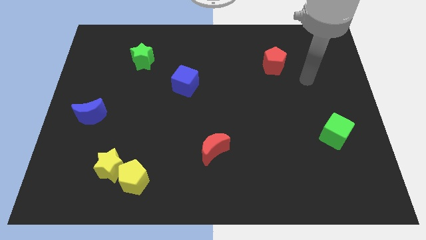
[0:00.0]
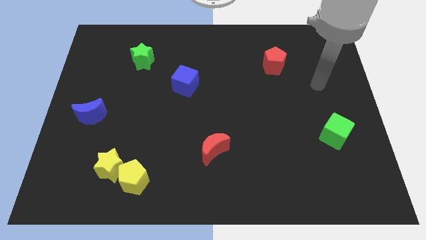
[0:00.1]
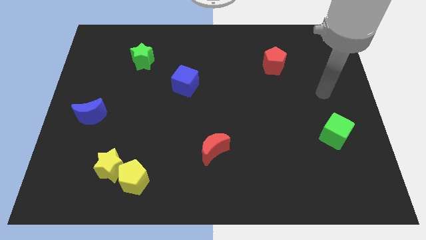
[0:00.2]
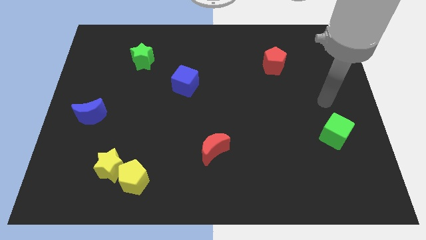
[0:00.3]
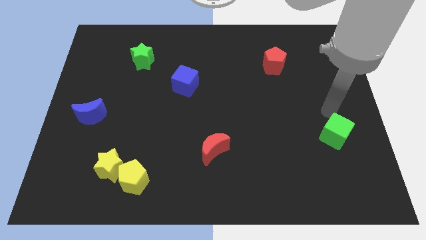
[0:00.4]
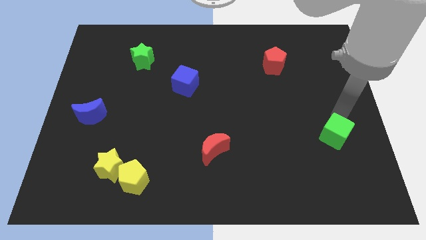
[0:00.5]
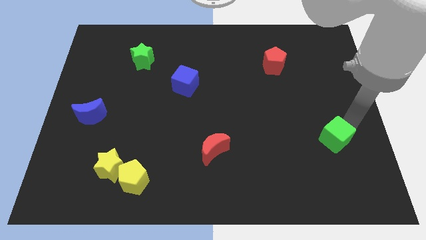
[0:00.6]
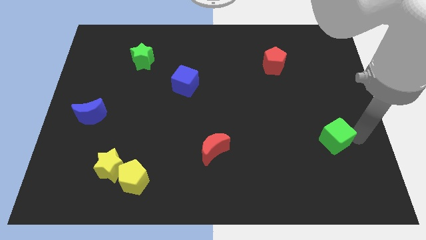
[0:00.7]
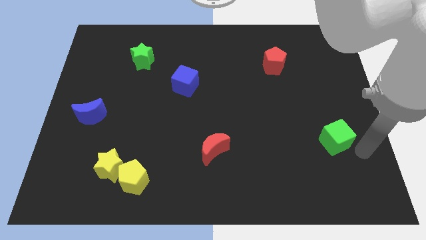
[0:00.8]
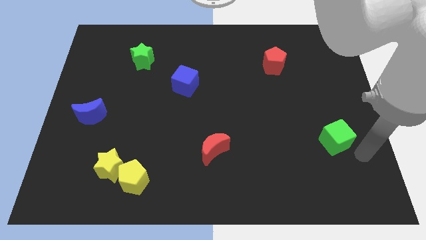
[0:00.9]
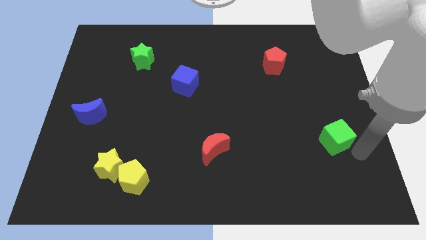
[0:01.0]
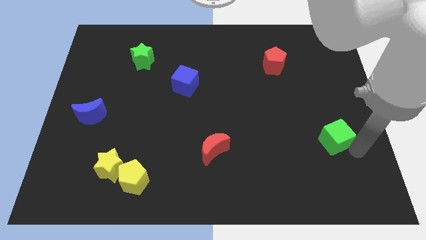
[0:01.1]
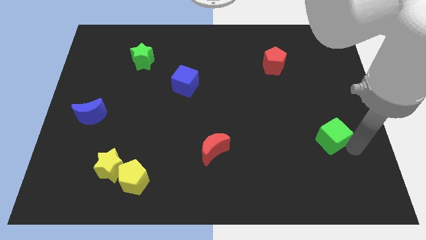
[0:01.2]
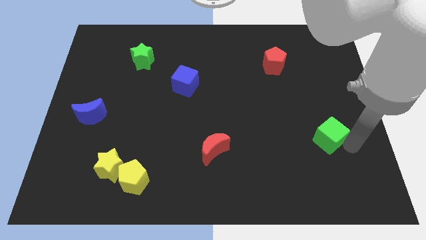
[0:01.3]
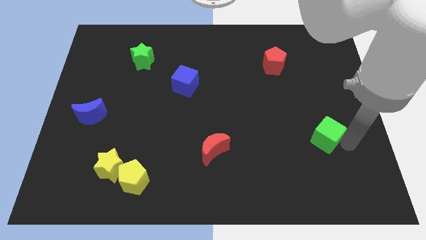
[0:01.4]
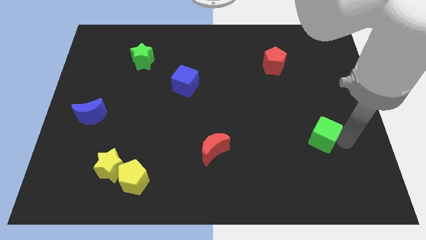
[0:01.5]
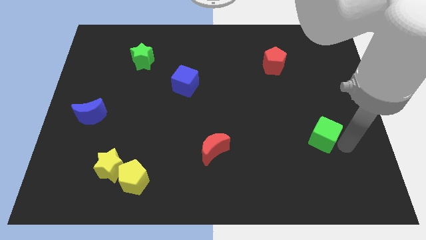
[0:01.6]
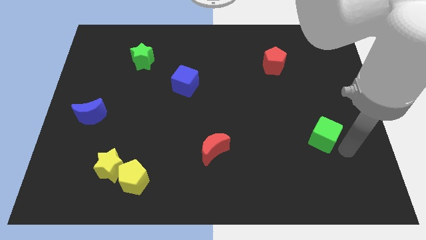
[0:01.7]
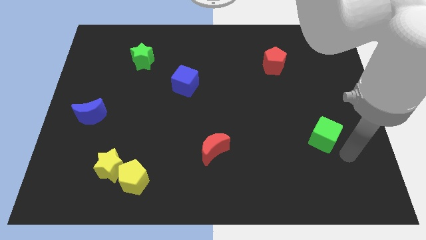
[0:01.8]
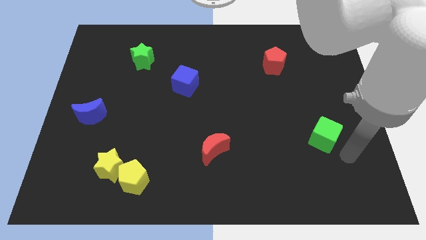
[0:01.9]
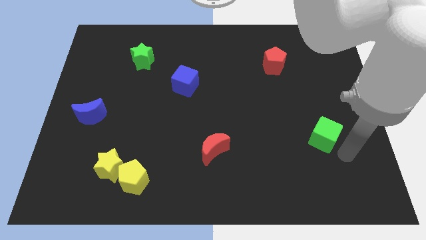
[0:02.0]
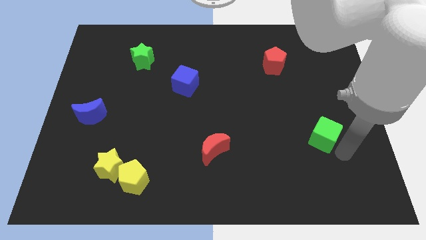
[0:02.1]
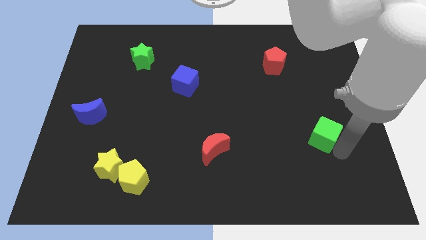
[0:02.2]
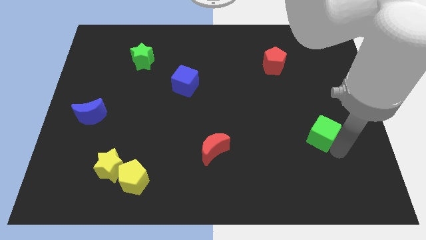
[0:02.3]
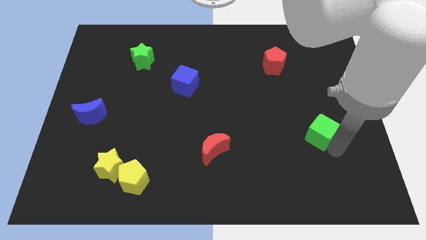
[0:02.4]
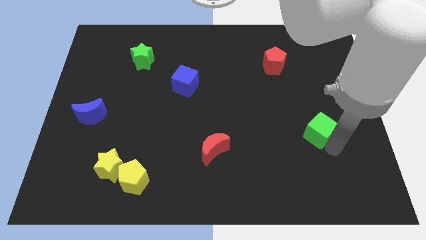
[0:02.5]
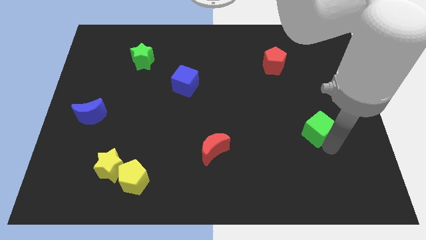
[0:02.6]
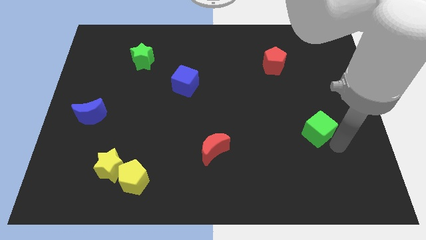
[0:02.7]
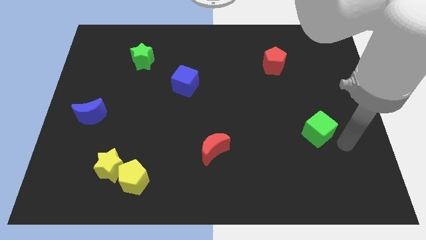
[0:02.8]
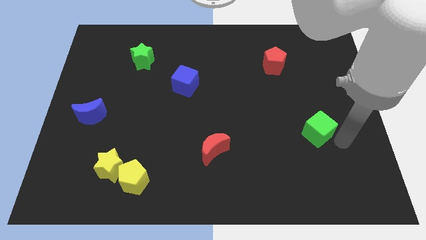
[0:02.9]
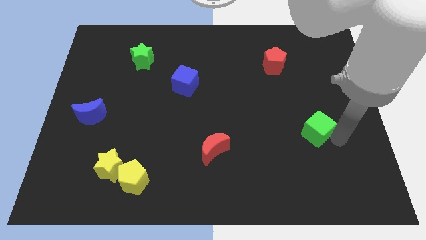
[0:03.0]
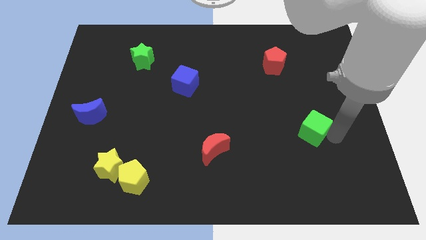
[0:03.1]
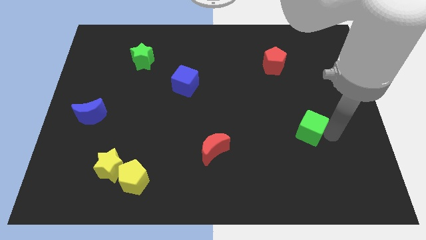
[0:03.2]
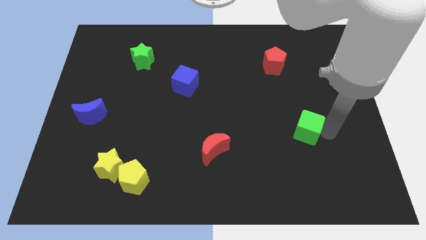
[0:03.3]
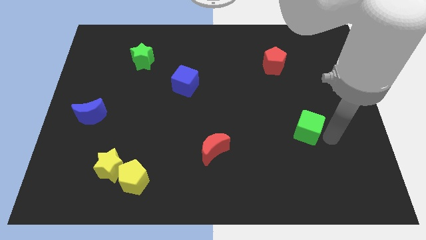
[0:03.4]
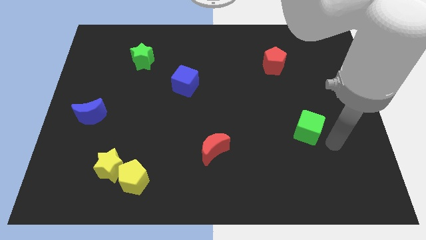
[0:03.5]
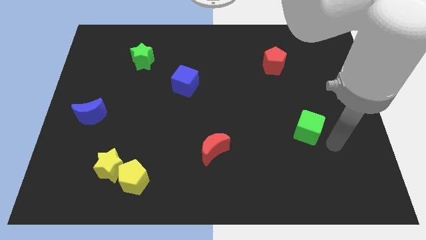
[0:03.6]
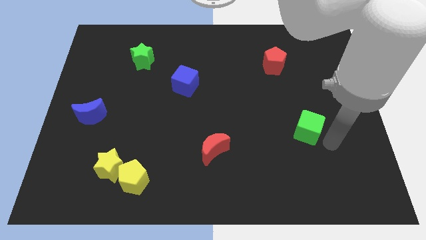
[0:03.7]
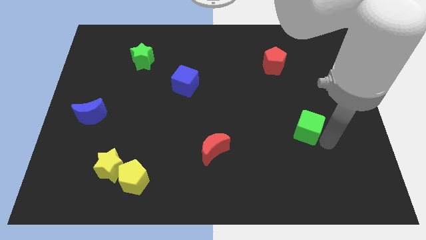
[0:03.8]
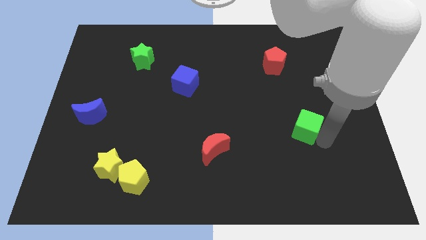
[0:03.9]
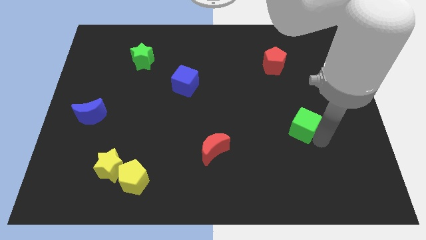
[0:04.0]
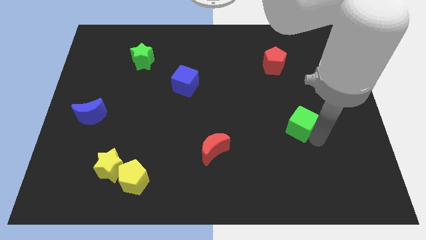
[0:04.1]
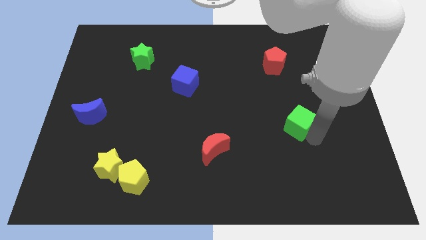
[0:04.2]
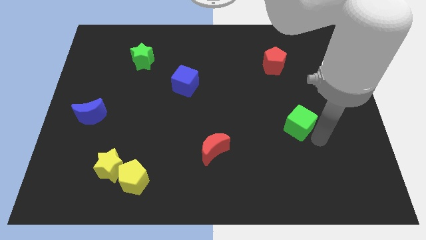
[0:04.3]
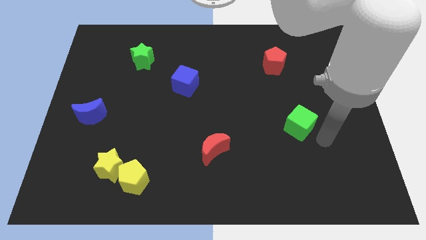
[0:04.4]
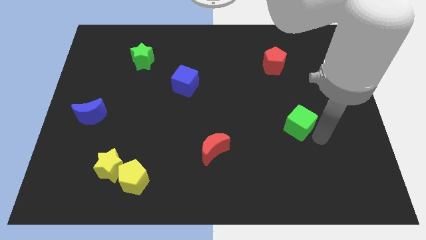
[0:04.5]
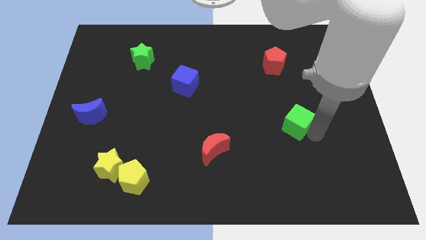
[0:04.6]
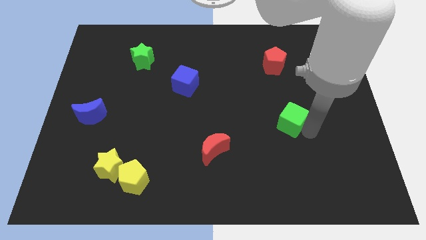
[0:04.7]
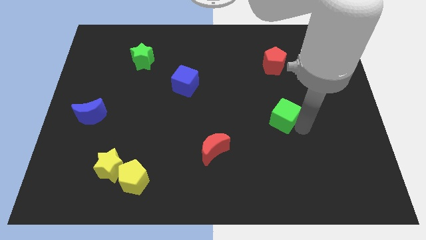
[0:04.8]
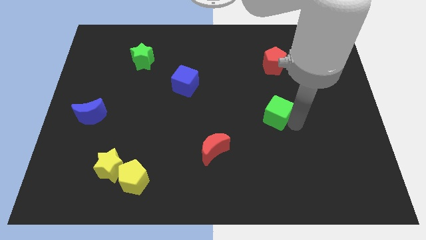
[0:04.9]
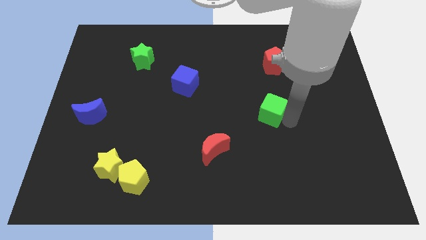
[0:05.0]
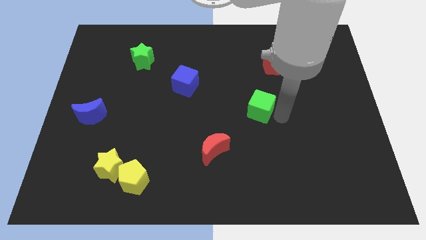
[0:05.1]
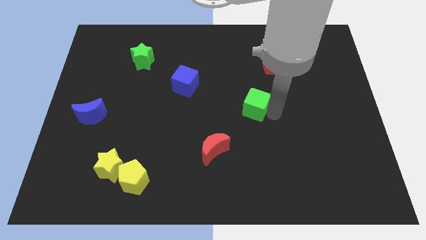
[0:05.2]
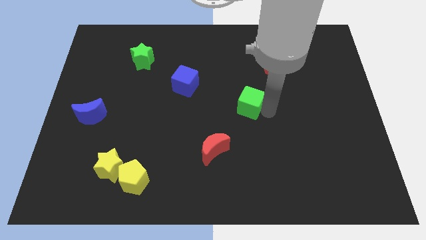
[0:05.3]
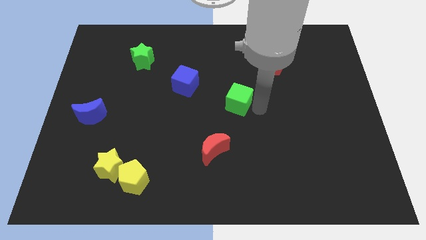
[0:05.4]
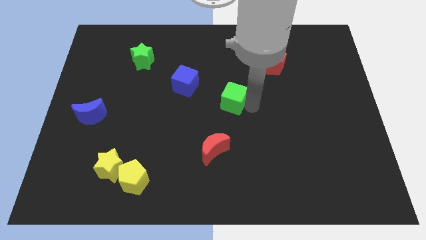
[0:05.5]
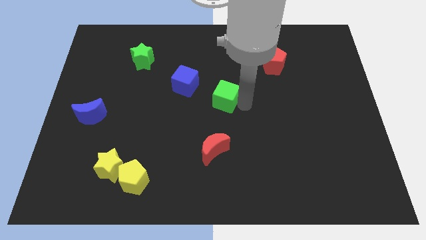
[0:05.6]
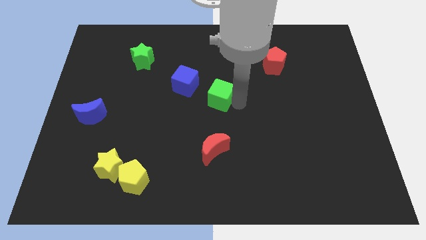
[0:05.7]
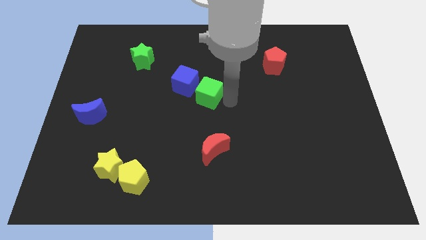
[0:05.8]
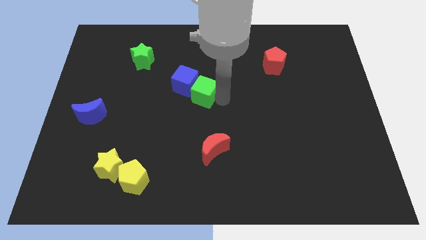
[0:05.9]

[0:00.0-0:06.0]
push the green cube close to the blue cube

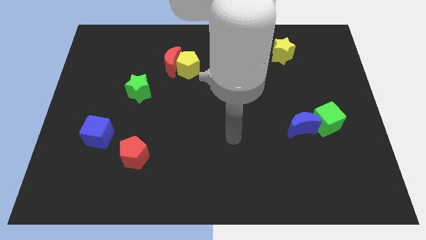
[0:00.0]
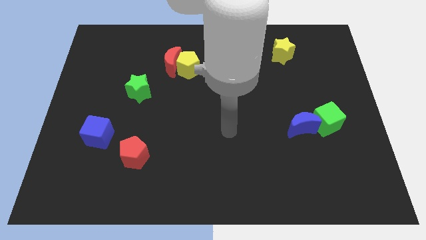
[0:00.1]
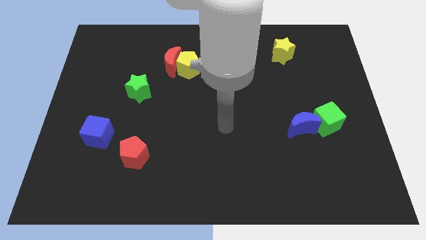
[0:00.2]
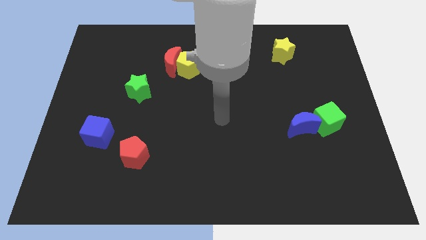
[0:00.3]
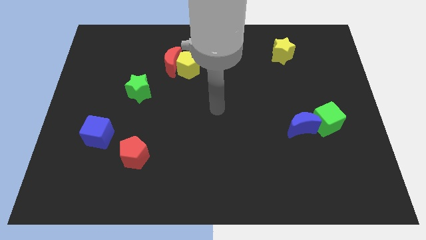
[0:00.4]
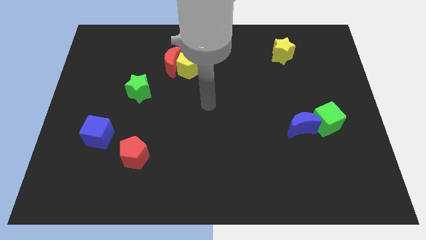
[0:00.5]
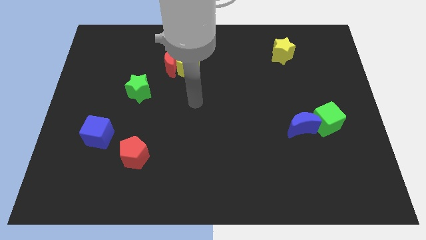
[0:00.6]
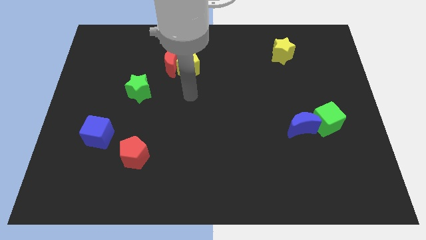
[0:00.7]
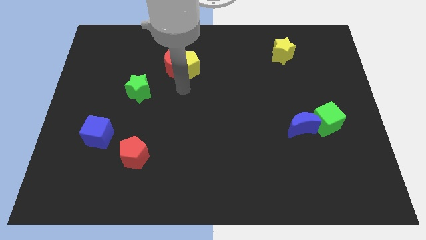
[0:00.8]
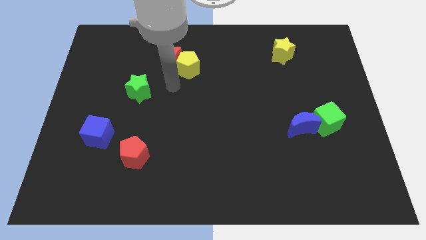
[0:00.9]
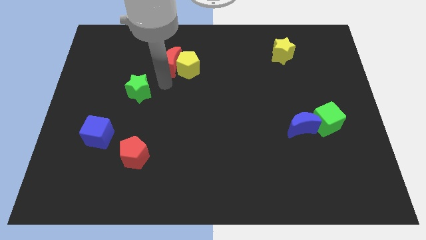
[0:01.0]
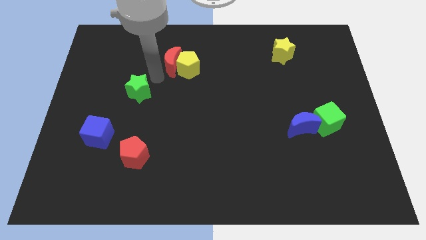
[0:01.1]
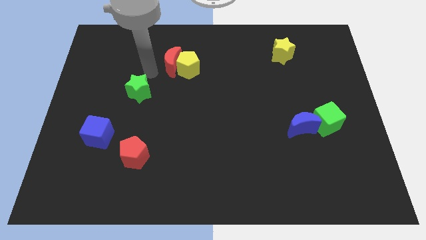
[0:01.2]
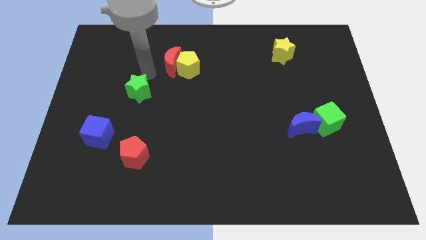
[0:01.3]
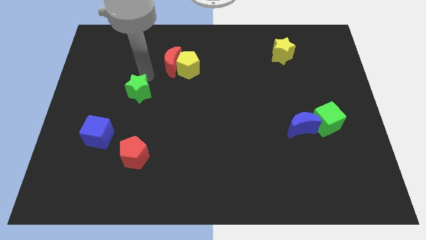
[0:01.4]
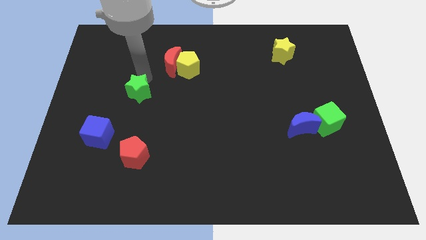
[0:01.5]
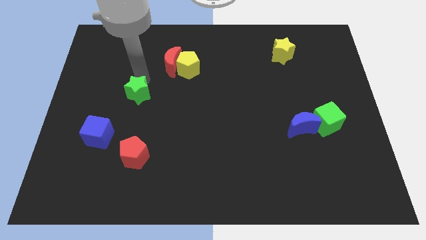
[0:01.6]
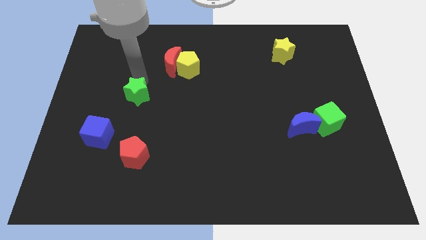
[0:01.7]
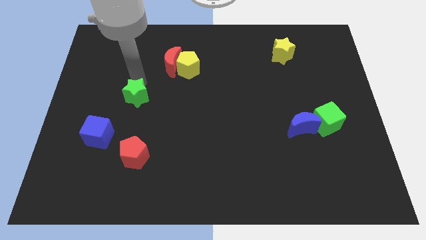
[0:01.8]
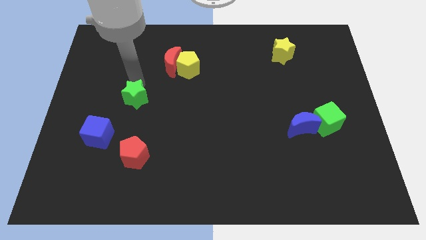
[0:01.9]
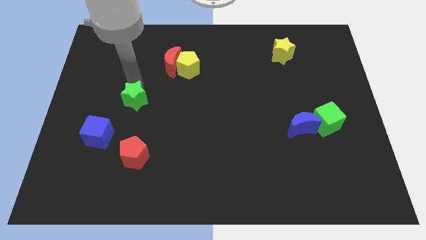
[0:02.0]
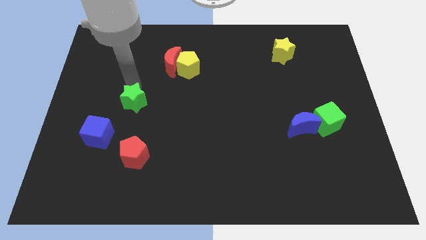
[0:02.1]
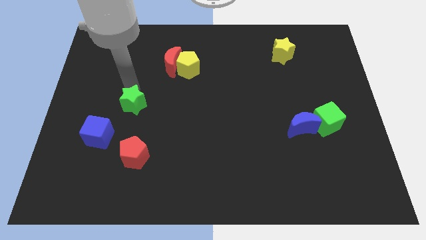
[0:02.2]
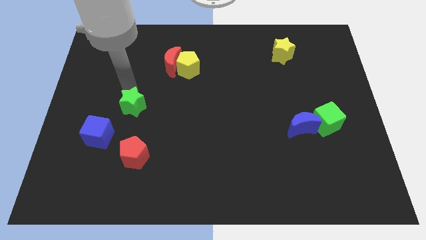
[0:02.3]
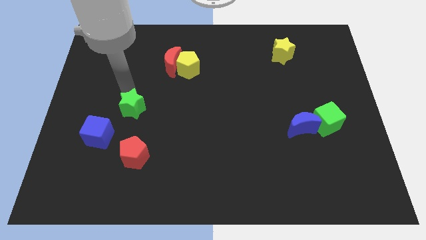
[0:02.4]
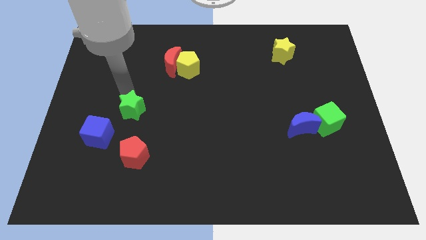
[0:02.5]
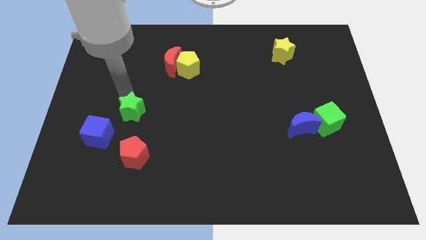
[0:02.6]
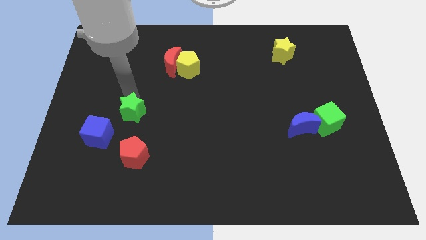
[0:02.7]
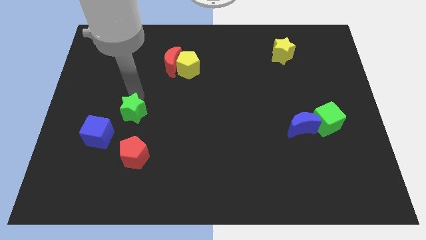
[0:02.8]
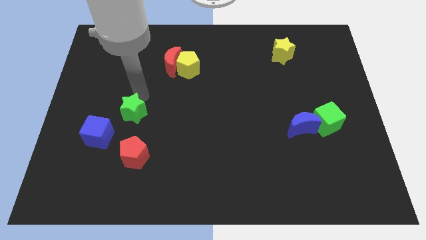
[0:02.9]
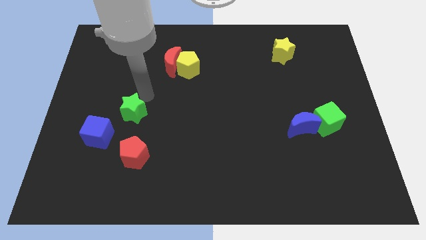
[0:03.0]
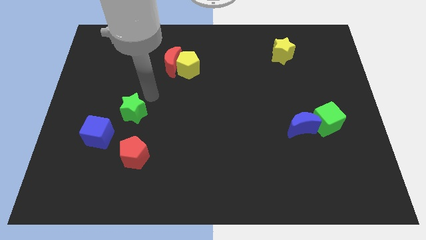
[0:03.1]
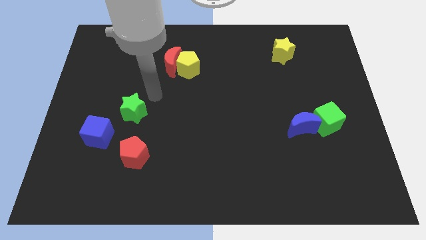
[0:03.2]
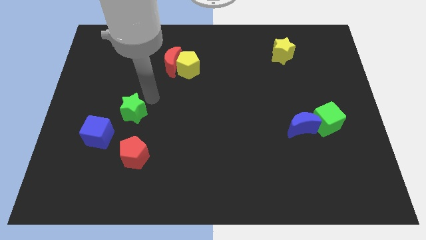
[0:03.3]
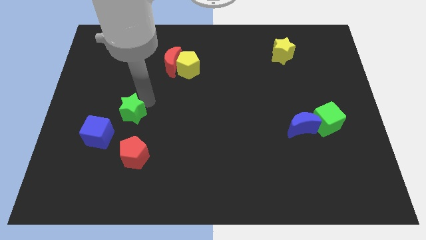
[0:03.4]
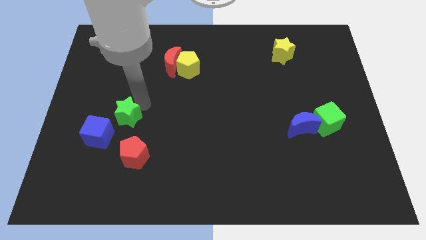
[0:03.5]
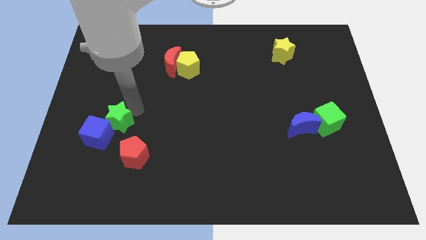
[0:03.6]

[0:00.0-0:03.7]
push the green star next to the blue cube
